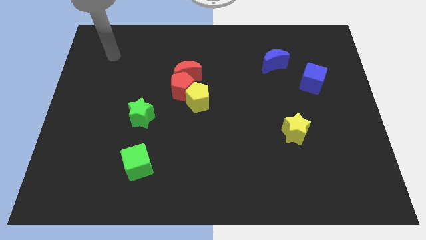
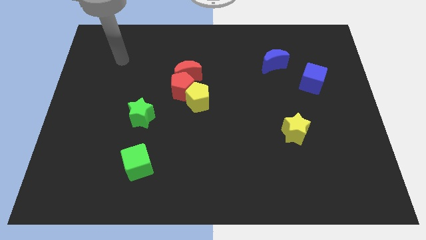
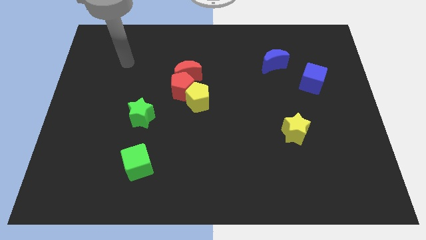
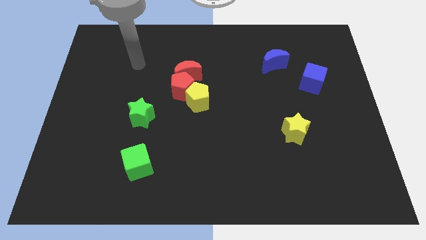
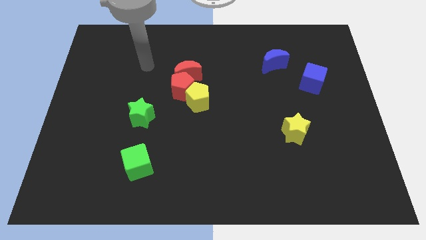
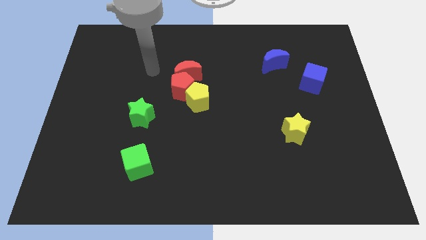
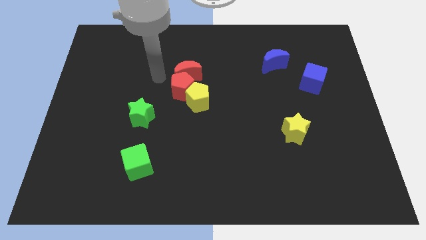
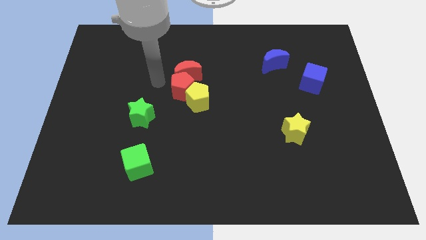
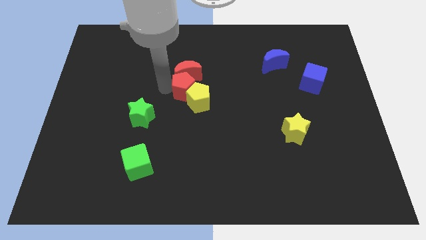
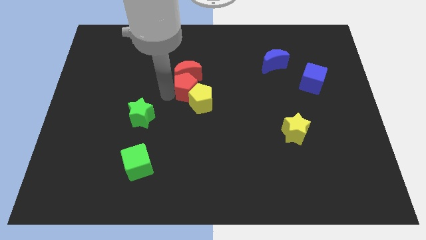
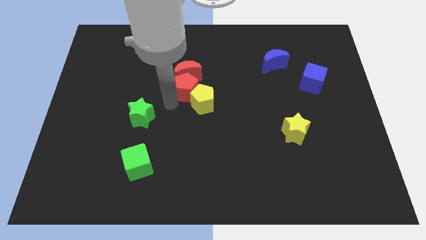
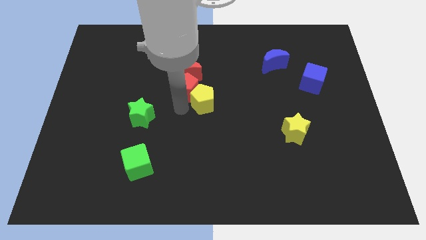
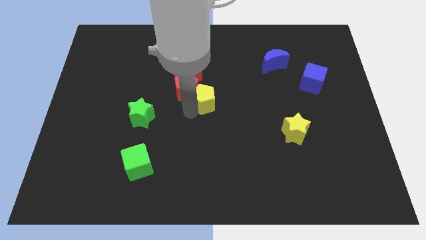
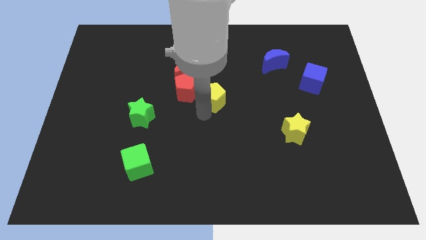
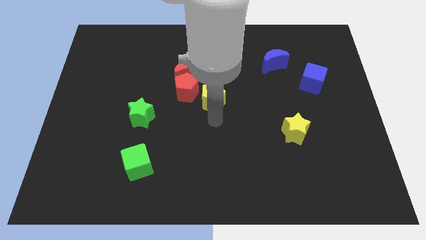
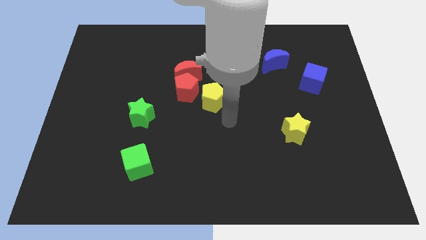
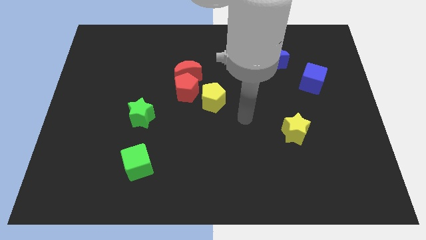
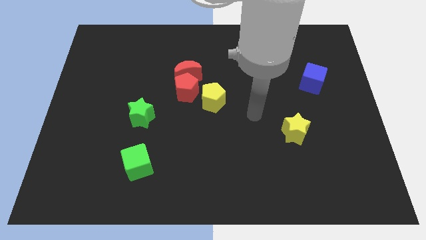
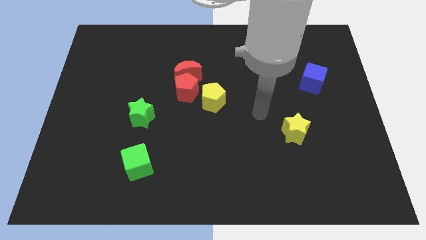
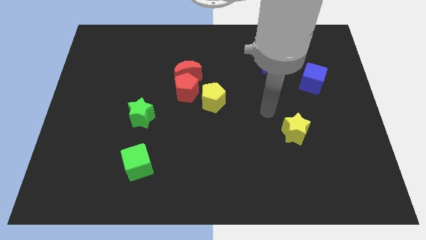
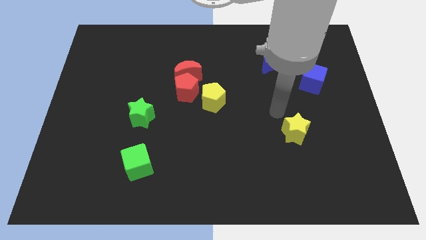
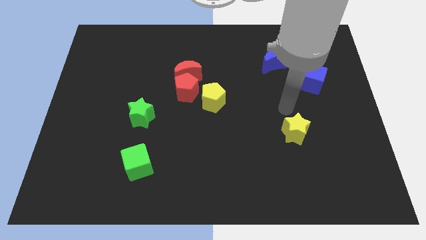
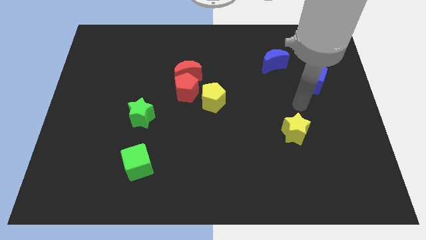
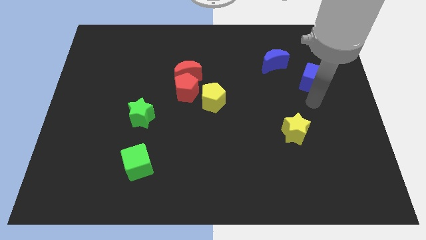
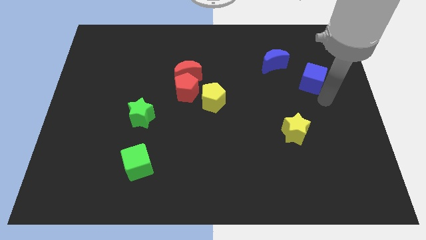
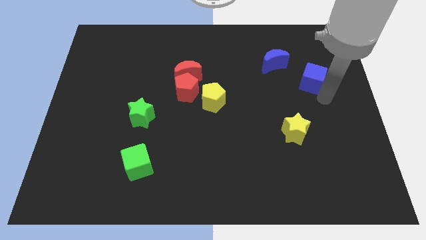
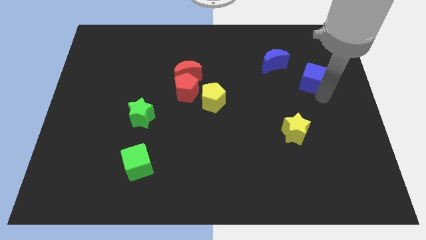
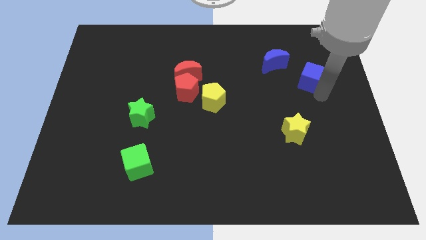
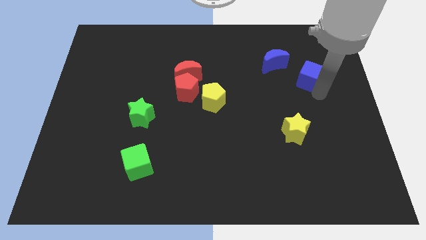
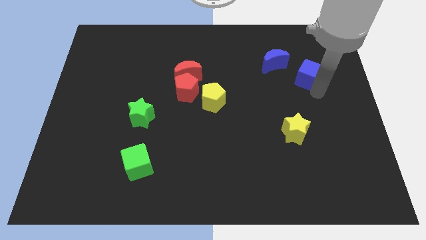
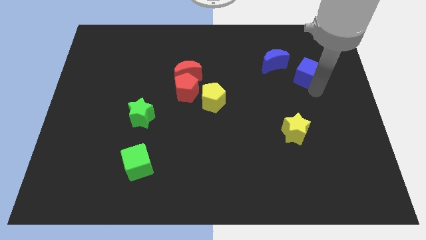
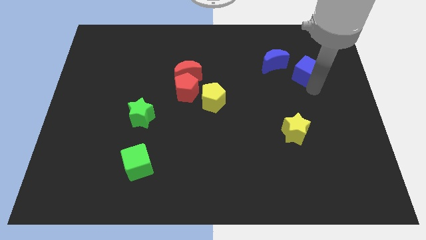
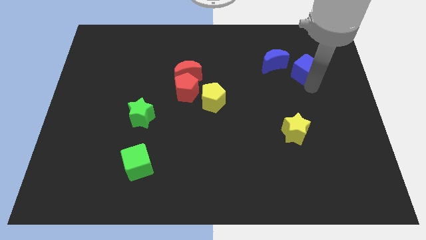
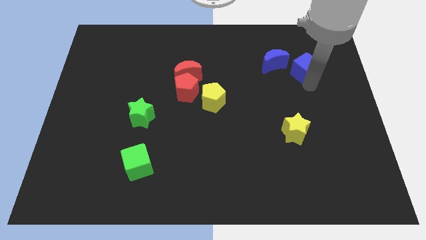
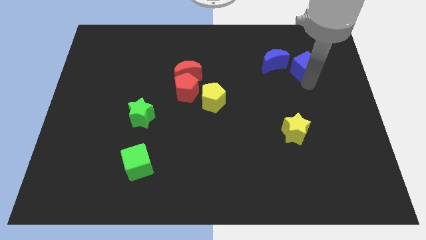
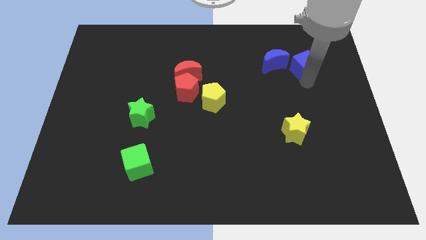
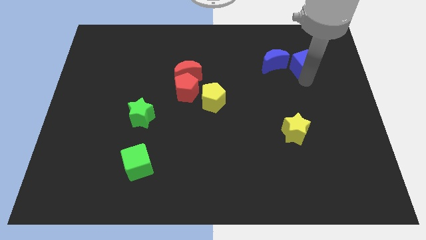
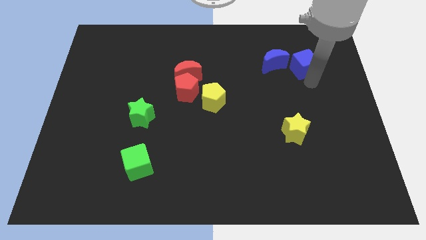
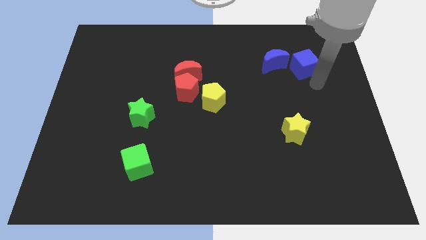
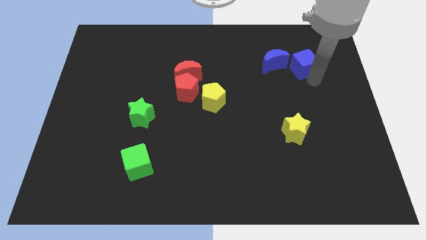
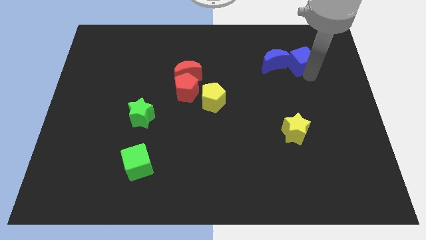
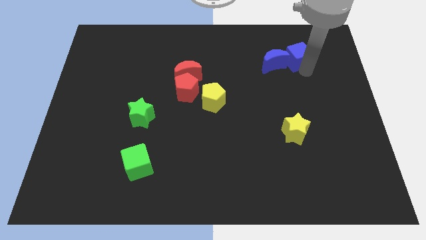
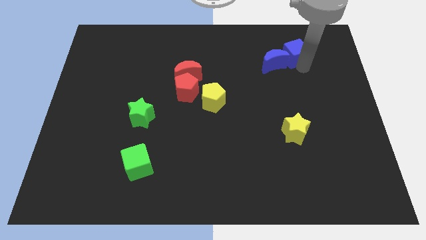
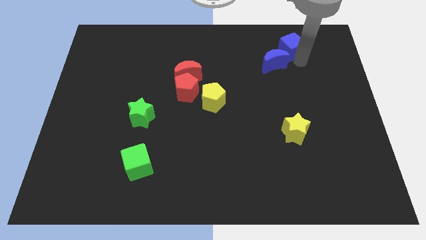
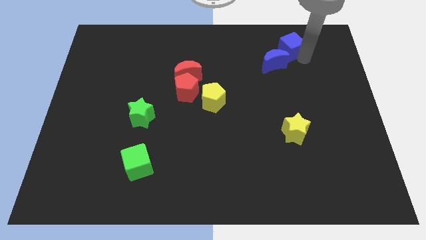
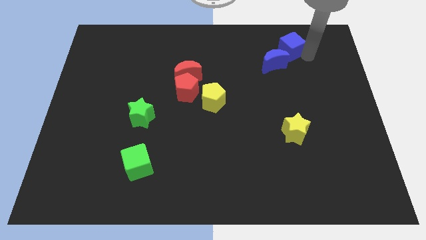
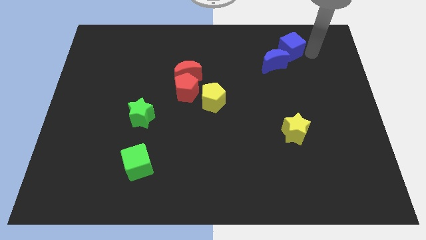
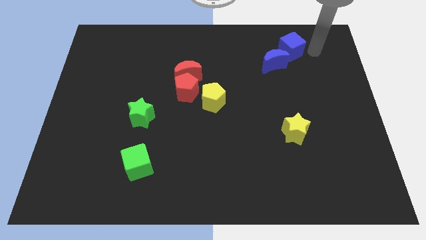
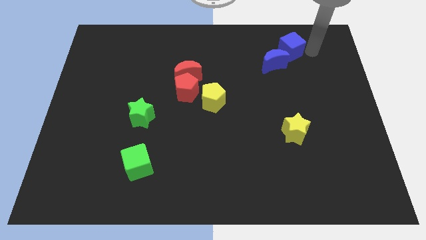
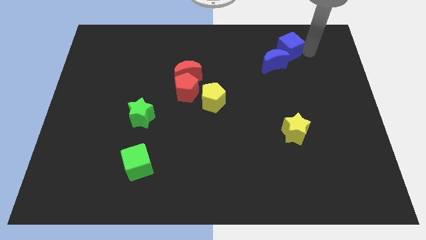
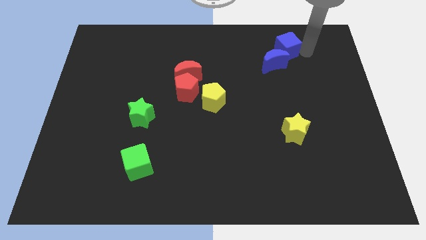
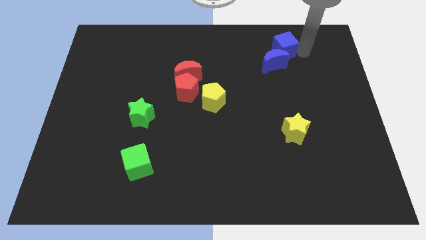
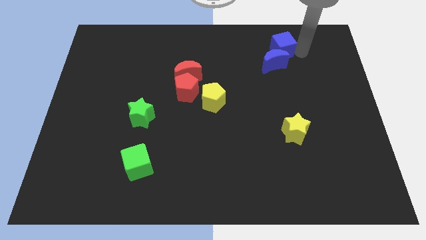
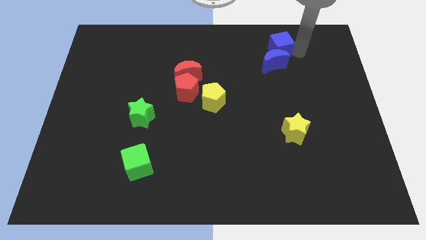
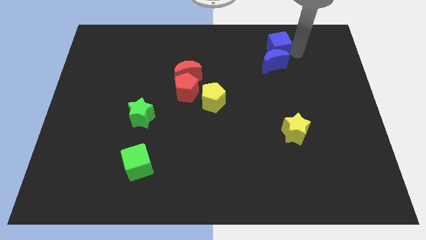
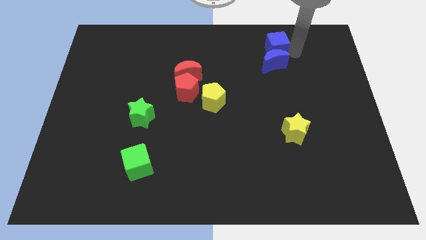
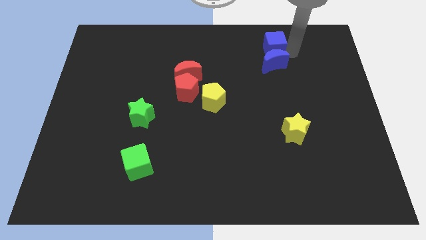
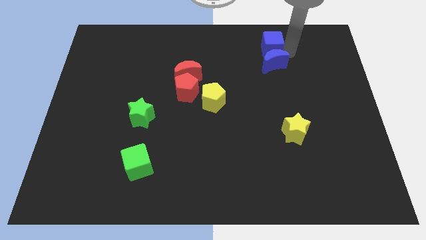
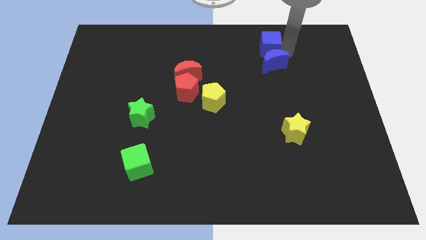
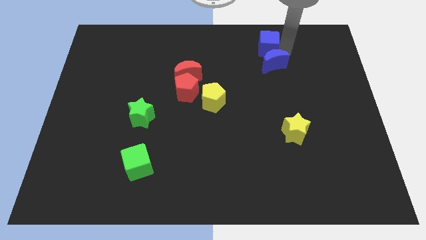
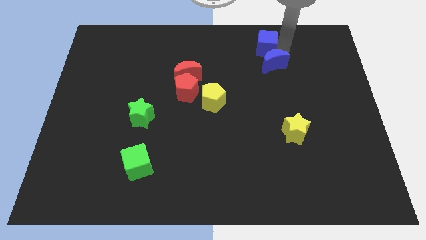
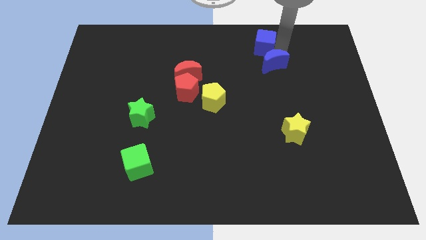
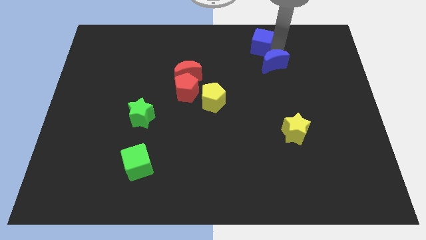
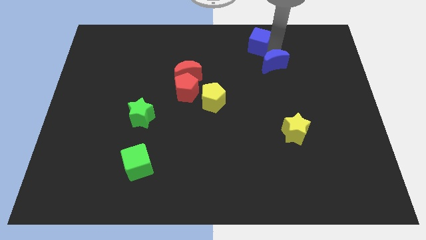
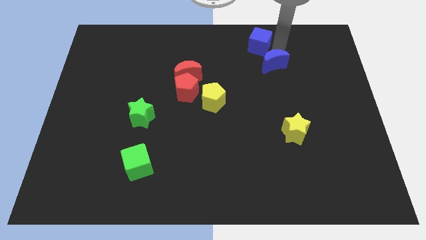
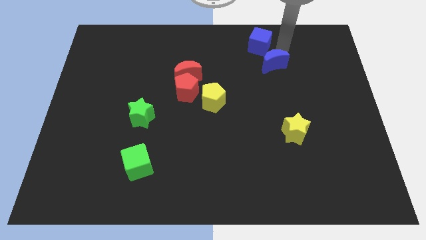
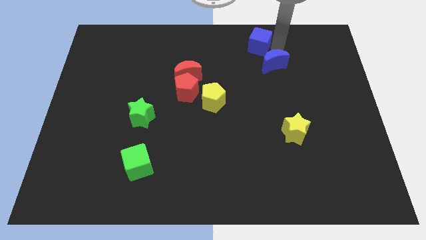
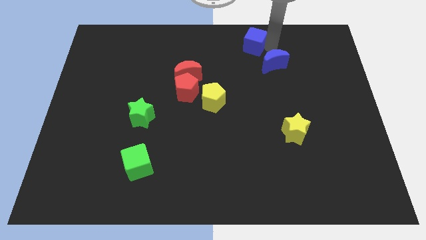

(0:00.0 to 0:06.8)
put the blue cube to the towards your base
